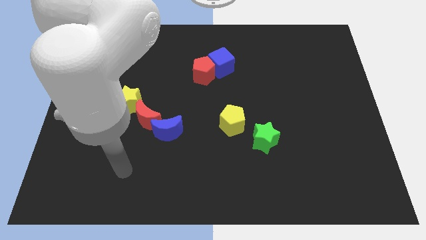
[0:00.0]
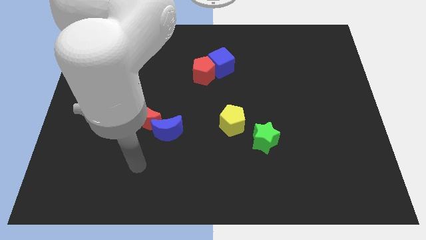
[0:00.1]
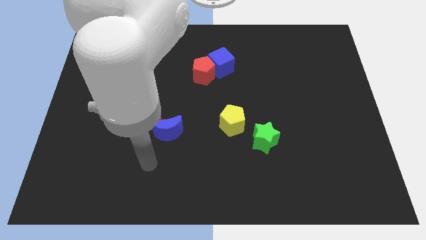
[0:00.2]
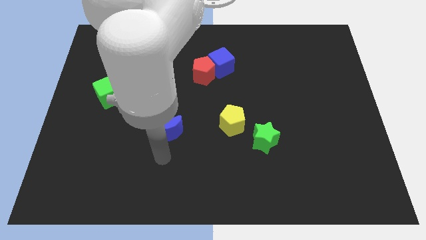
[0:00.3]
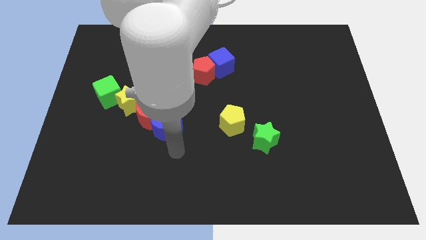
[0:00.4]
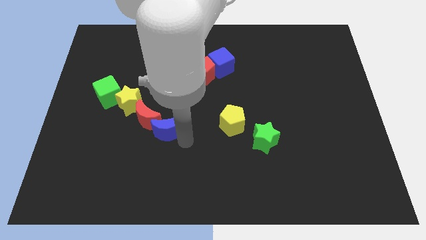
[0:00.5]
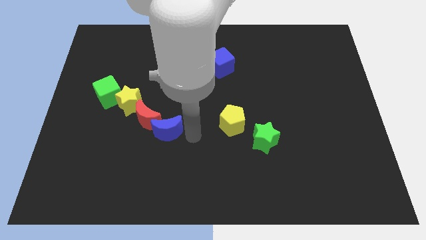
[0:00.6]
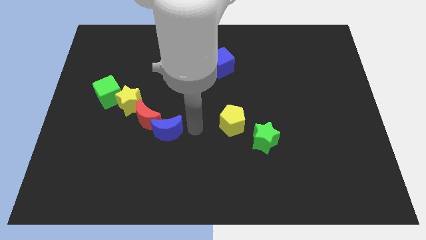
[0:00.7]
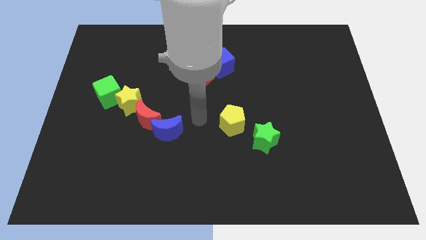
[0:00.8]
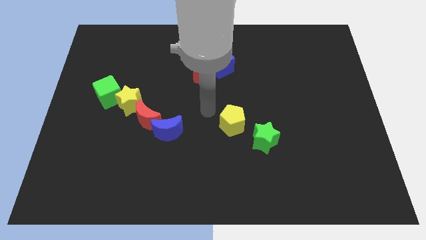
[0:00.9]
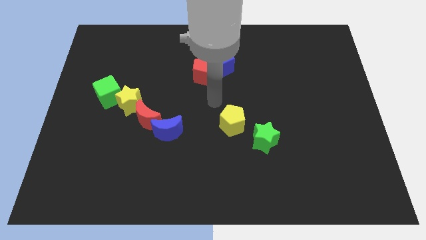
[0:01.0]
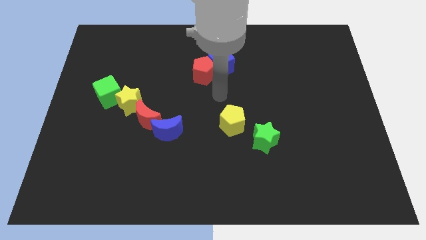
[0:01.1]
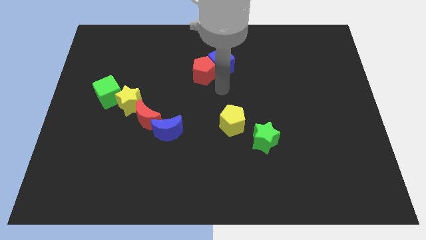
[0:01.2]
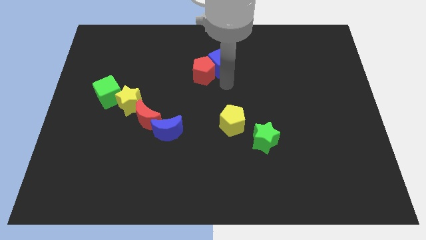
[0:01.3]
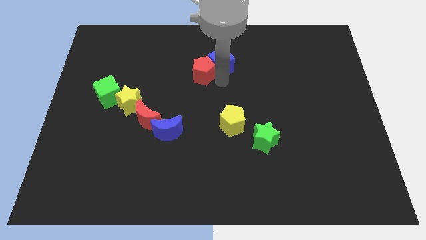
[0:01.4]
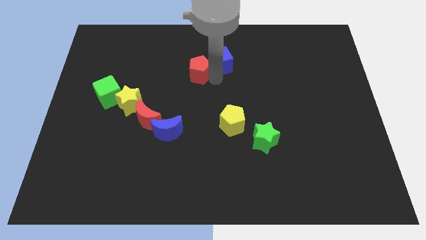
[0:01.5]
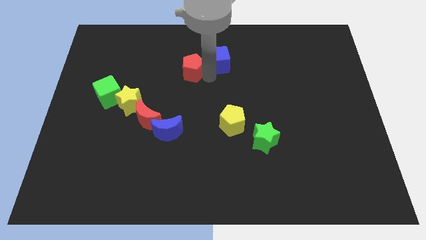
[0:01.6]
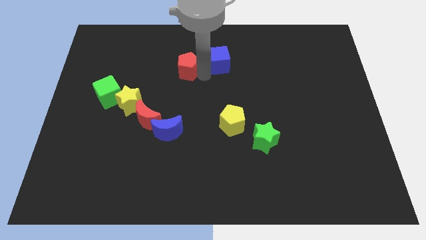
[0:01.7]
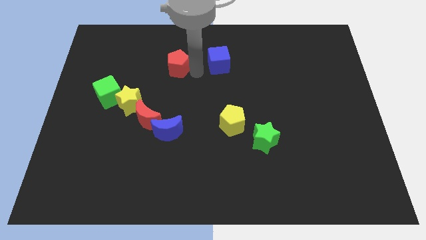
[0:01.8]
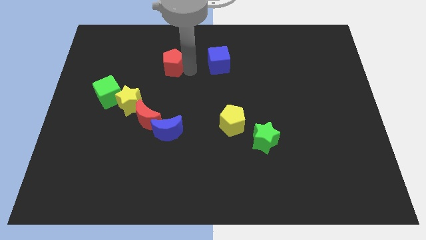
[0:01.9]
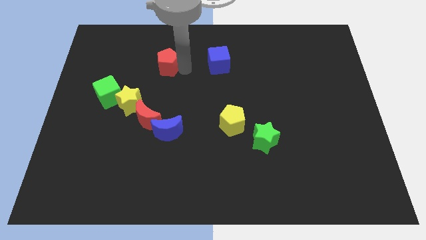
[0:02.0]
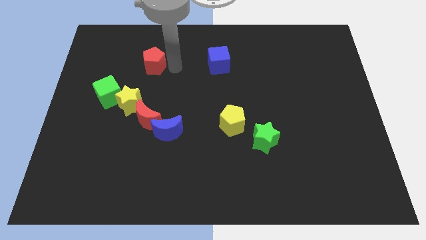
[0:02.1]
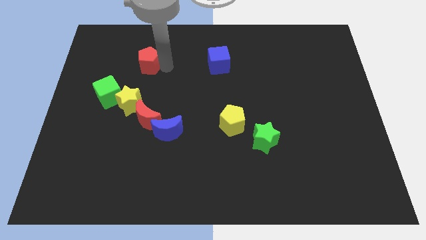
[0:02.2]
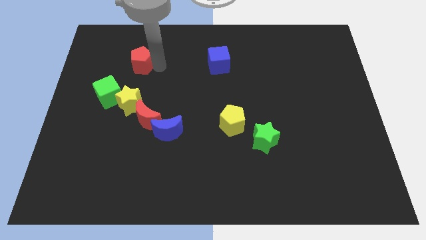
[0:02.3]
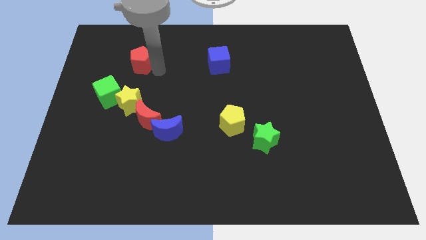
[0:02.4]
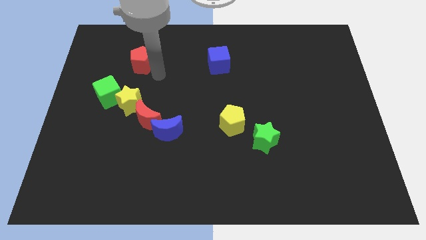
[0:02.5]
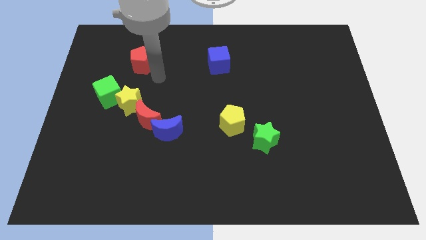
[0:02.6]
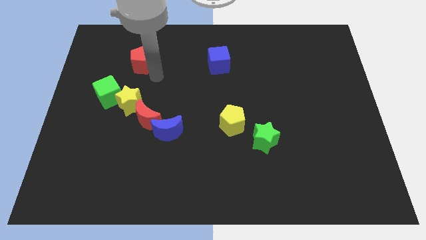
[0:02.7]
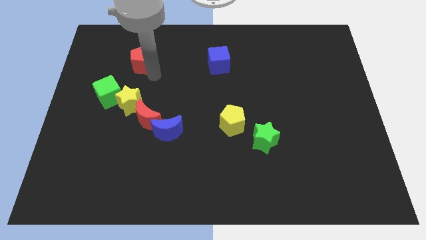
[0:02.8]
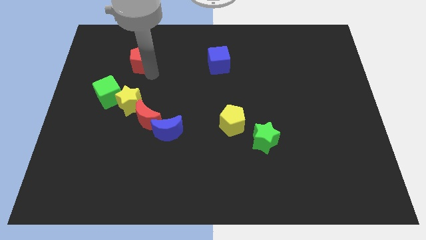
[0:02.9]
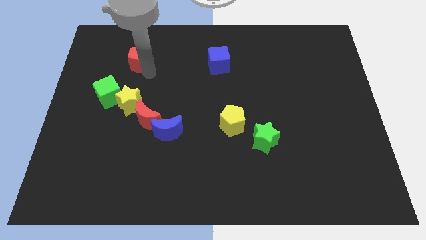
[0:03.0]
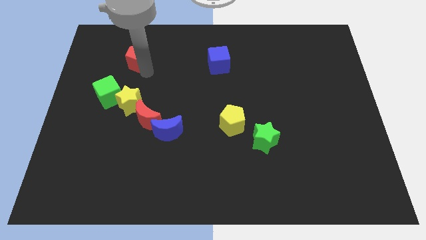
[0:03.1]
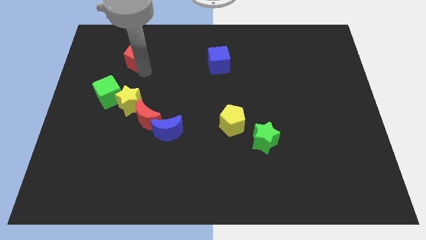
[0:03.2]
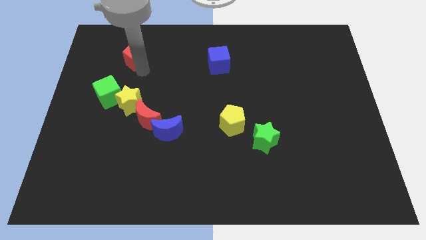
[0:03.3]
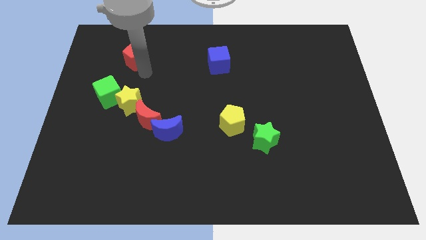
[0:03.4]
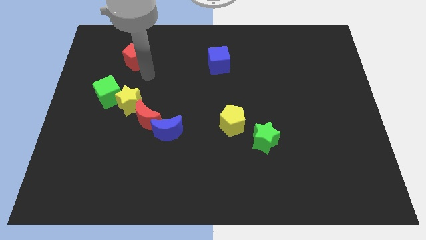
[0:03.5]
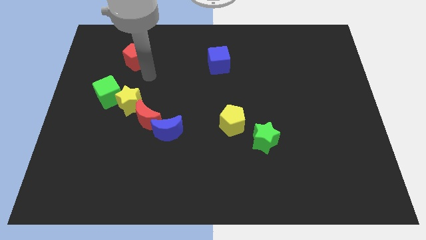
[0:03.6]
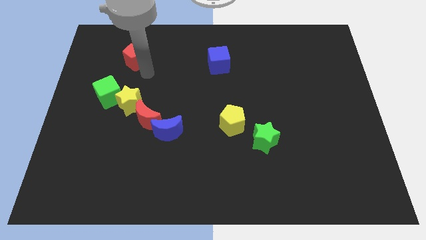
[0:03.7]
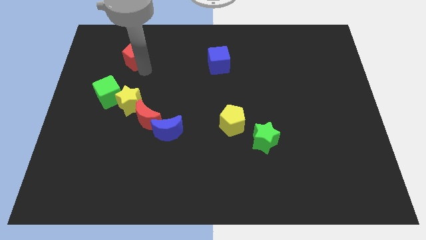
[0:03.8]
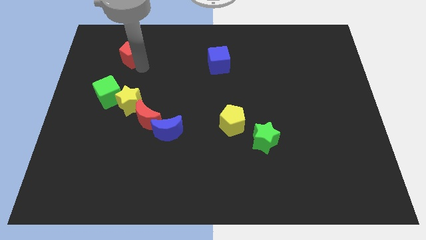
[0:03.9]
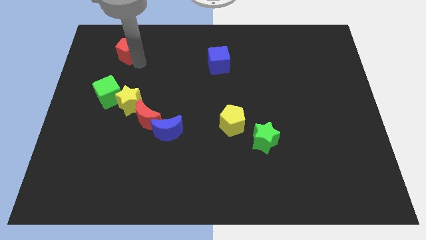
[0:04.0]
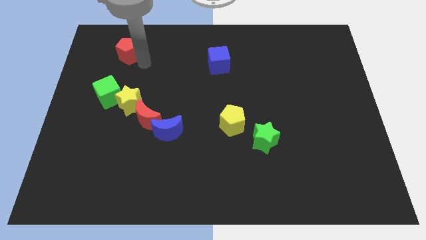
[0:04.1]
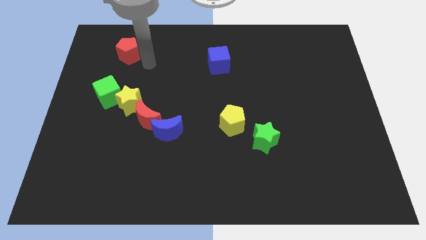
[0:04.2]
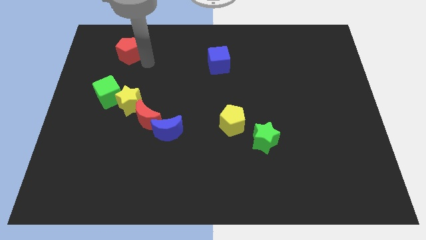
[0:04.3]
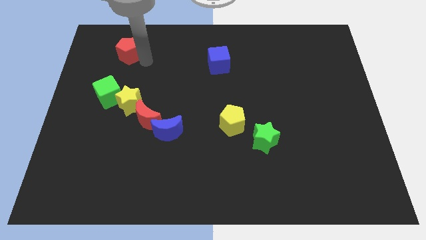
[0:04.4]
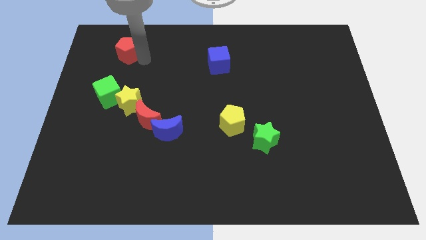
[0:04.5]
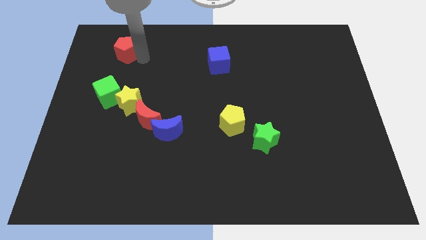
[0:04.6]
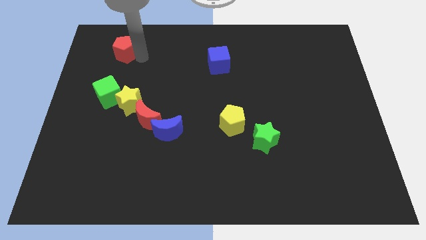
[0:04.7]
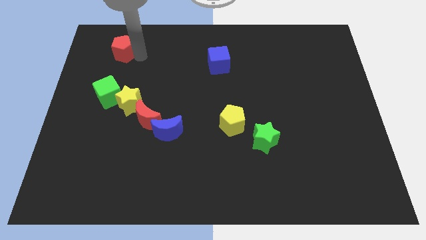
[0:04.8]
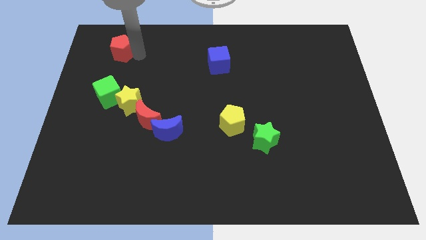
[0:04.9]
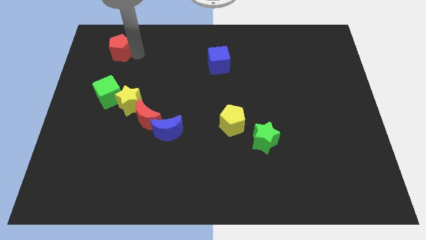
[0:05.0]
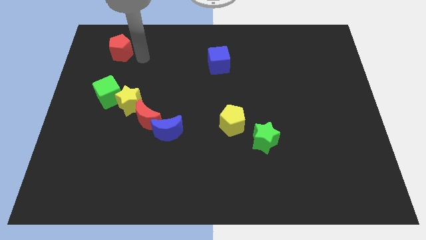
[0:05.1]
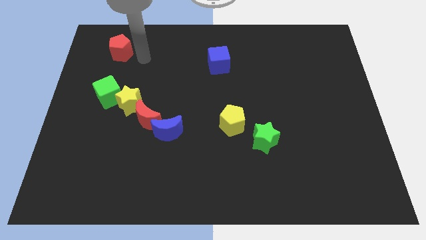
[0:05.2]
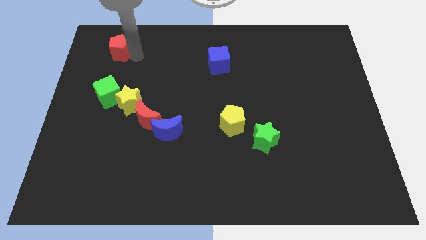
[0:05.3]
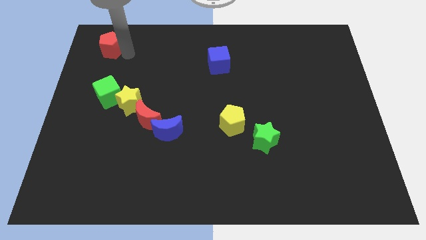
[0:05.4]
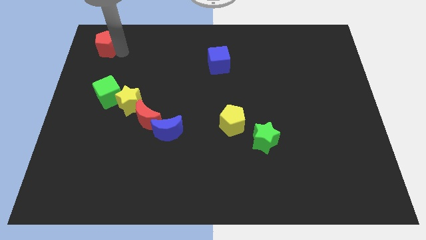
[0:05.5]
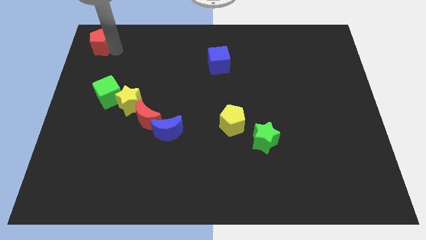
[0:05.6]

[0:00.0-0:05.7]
move the red pentagon to the top left of the board
